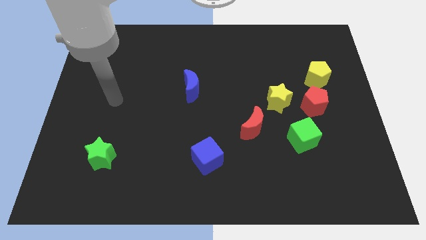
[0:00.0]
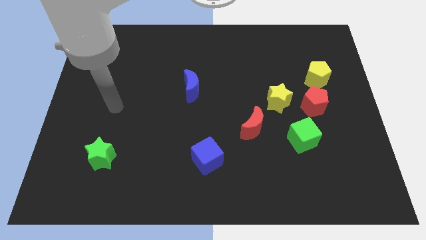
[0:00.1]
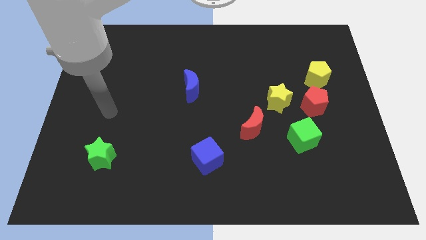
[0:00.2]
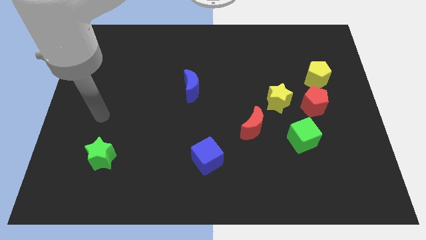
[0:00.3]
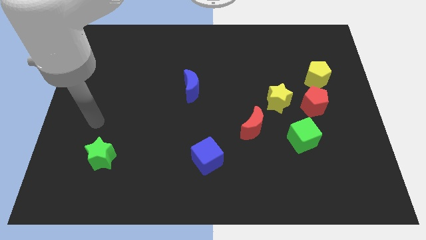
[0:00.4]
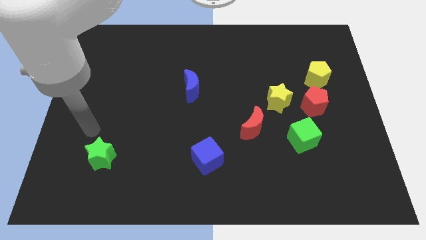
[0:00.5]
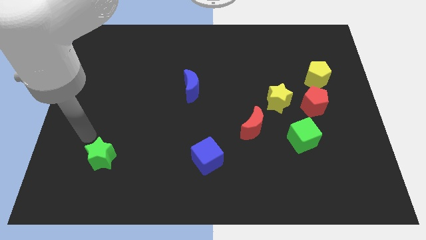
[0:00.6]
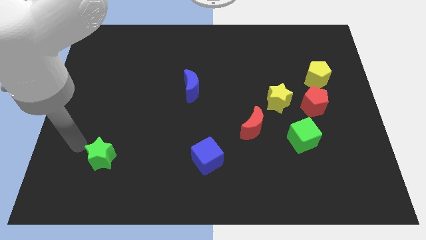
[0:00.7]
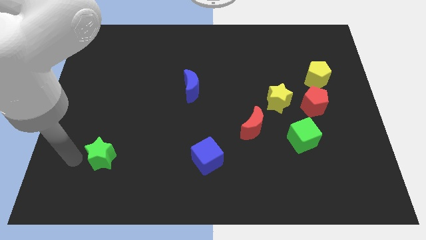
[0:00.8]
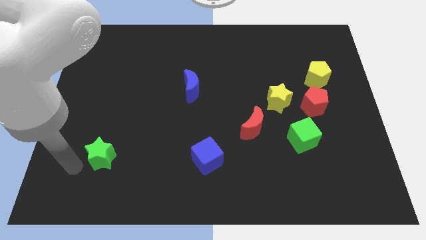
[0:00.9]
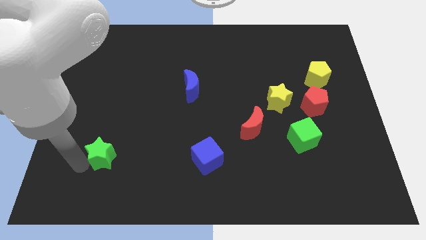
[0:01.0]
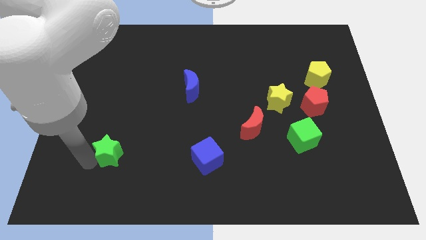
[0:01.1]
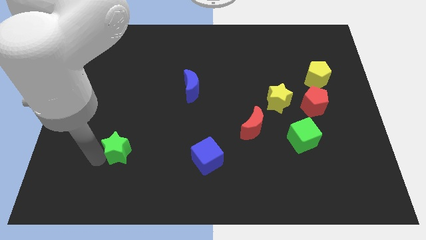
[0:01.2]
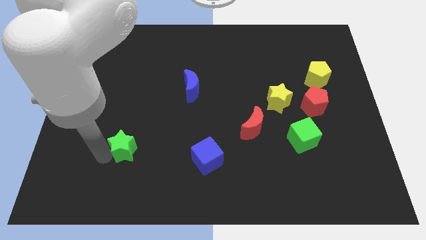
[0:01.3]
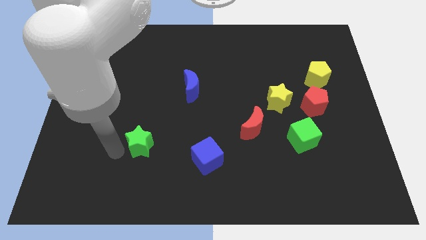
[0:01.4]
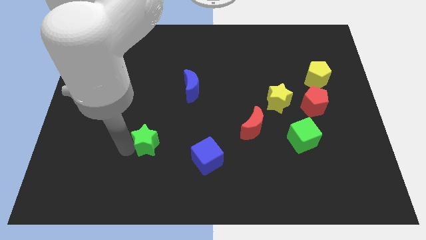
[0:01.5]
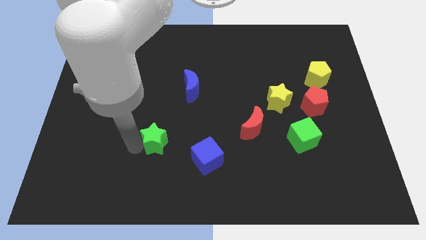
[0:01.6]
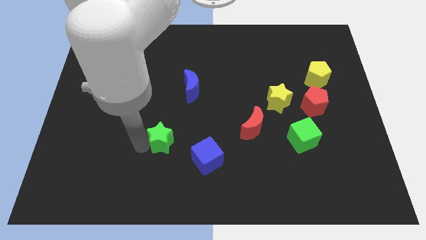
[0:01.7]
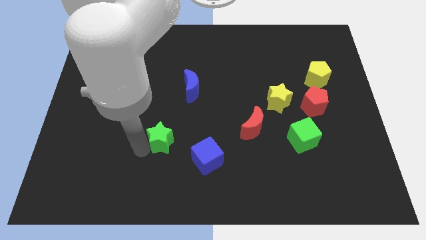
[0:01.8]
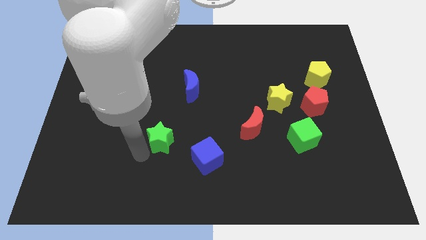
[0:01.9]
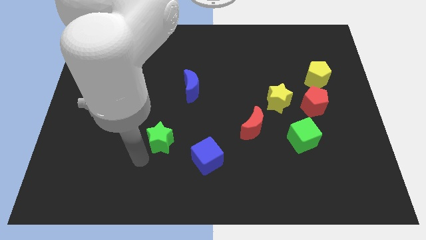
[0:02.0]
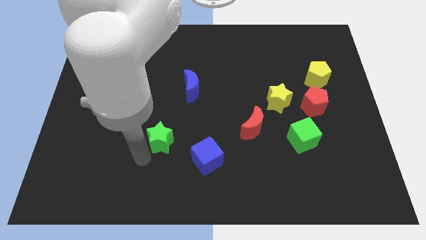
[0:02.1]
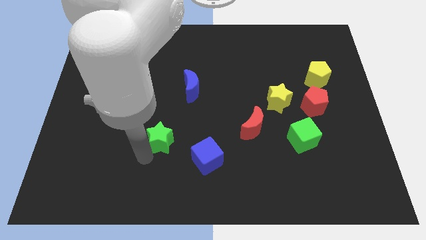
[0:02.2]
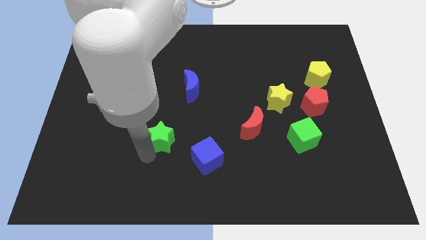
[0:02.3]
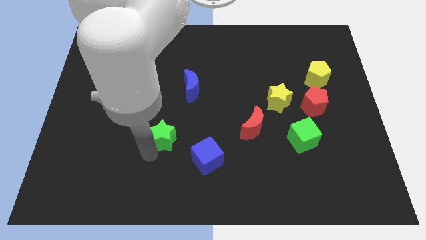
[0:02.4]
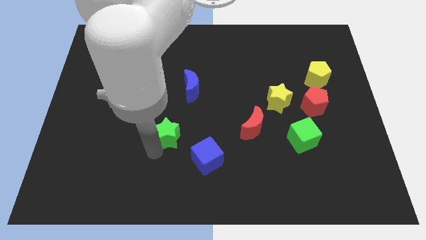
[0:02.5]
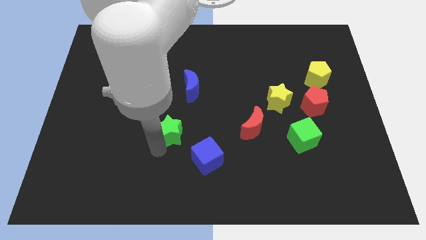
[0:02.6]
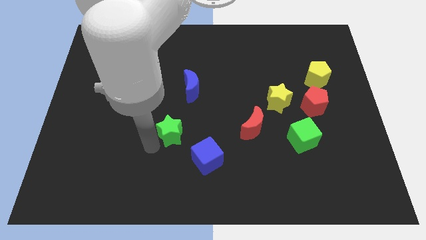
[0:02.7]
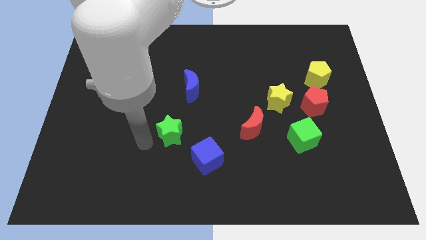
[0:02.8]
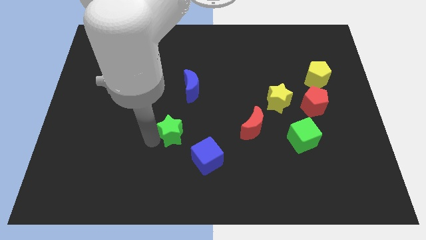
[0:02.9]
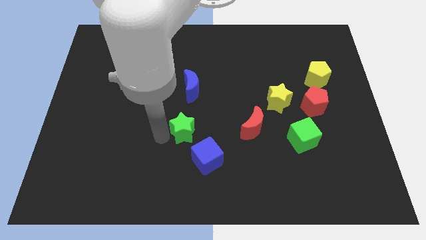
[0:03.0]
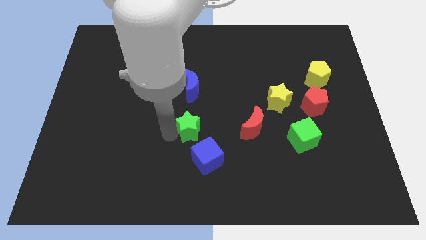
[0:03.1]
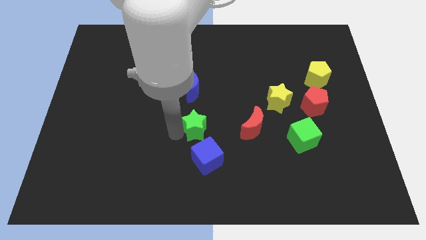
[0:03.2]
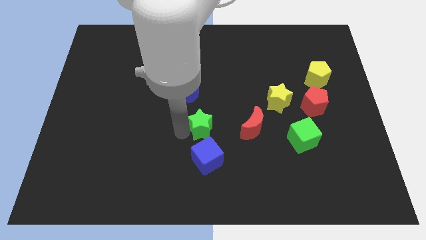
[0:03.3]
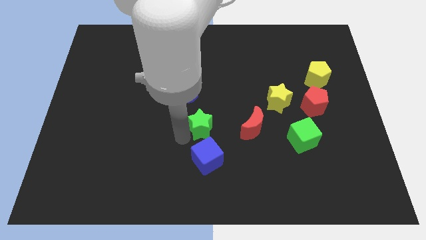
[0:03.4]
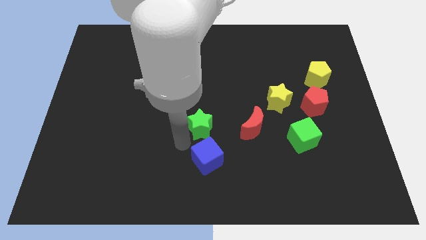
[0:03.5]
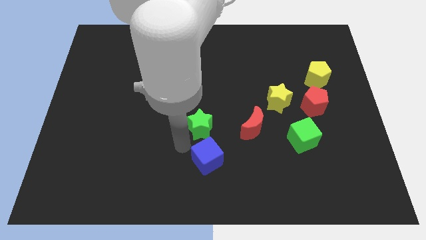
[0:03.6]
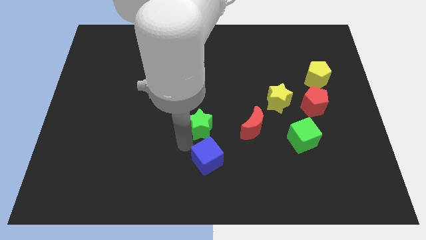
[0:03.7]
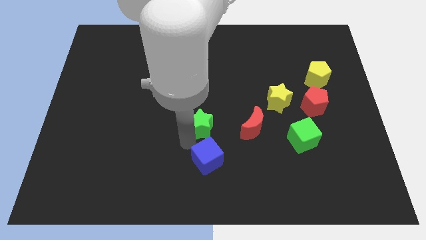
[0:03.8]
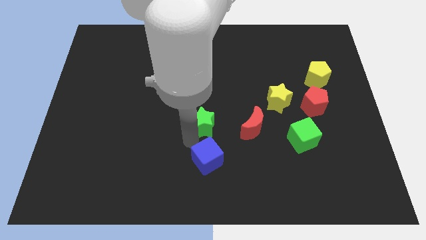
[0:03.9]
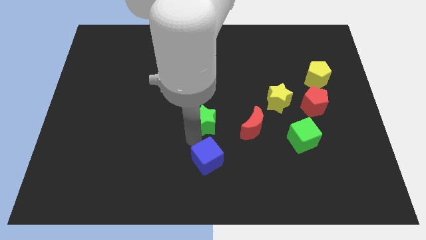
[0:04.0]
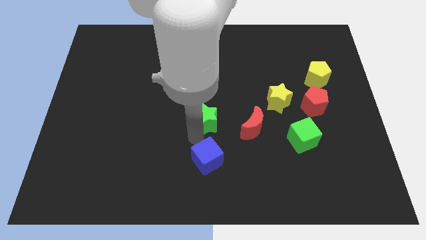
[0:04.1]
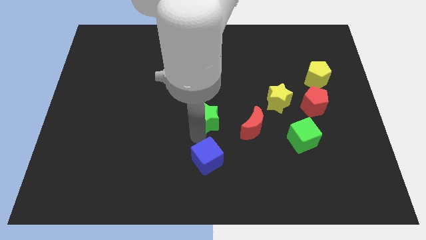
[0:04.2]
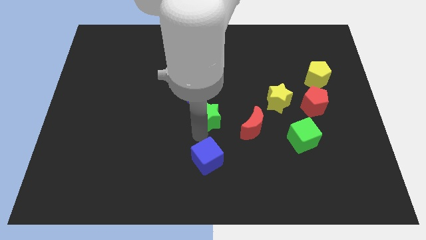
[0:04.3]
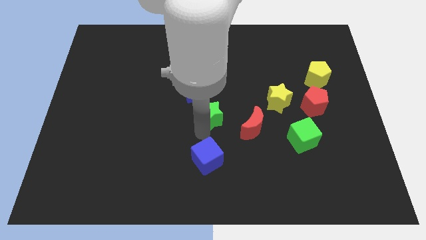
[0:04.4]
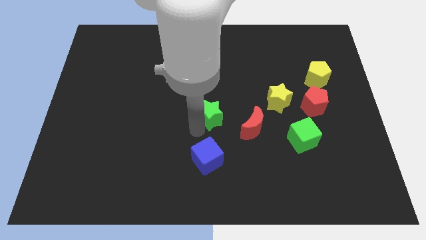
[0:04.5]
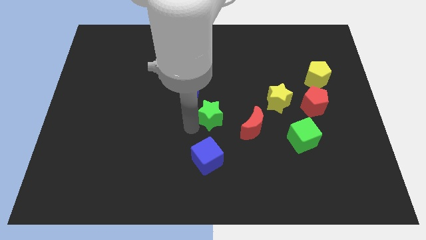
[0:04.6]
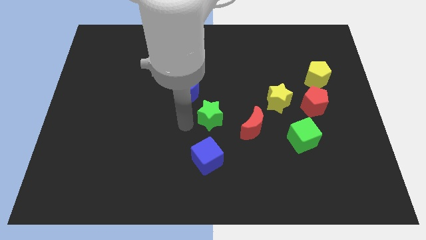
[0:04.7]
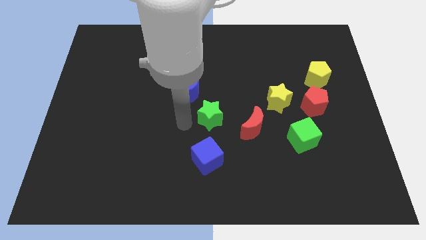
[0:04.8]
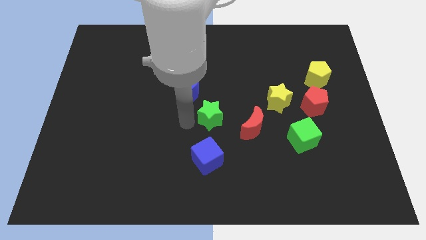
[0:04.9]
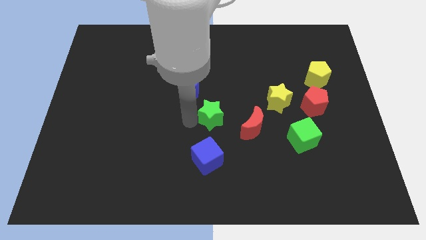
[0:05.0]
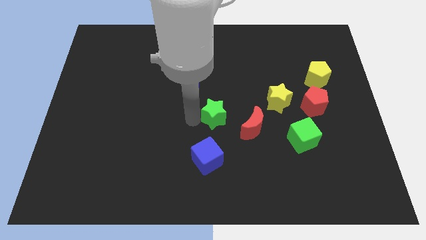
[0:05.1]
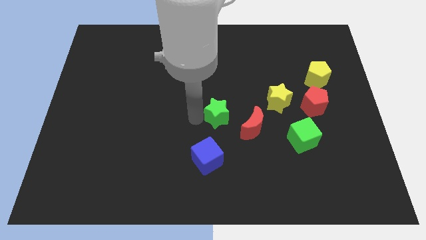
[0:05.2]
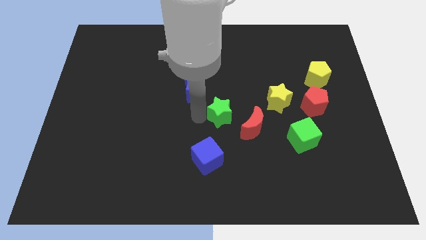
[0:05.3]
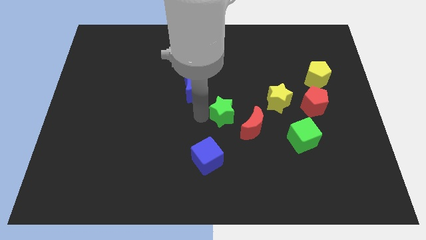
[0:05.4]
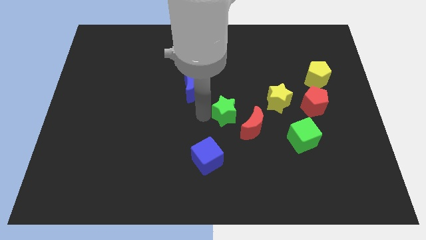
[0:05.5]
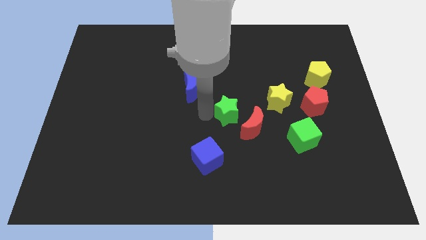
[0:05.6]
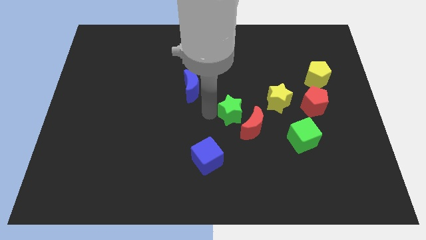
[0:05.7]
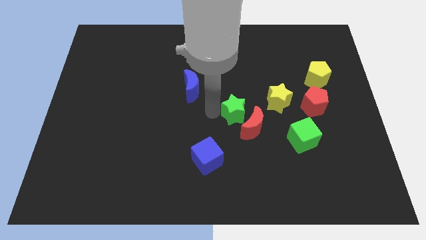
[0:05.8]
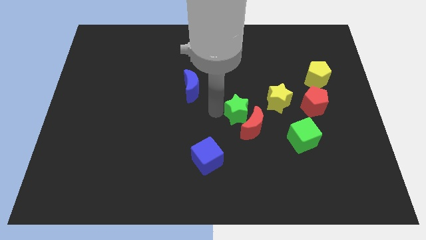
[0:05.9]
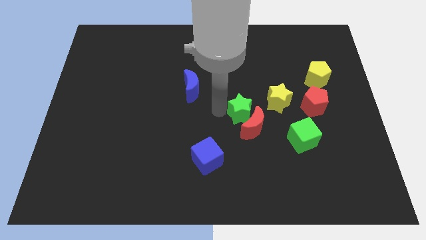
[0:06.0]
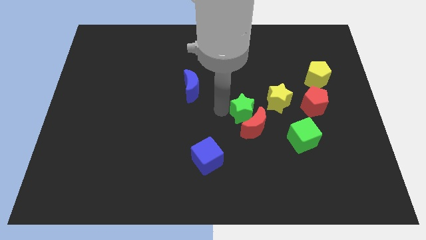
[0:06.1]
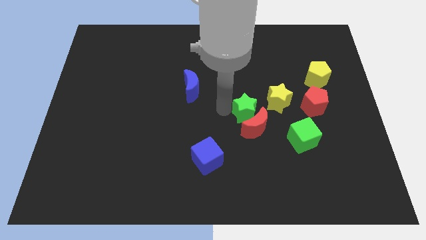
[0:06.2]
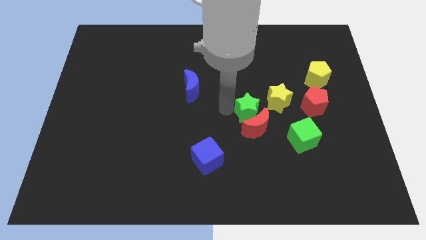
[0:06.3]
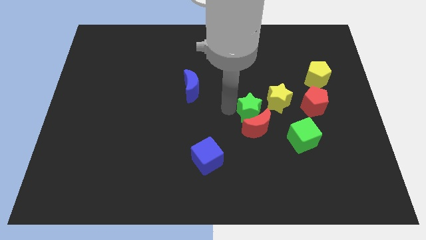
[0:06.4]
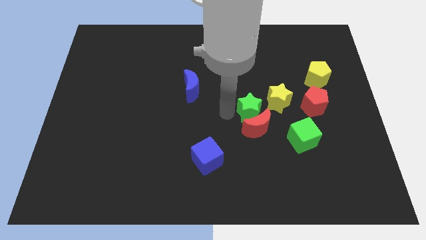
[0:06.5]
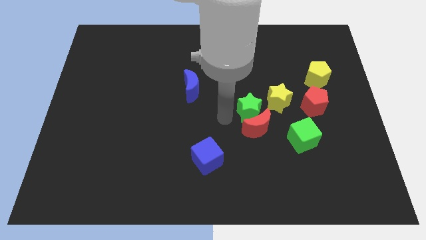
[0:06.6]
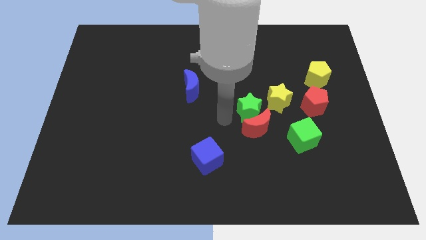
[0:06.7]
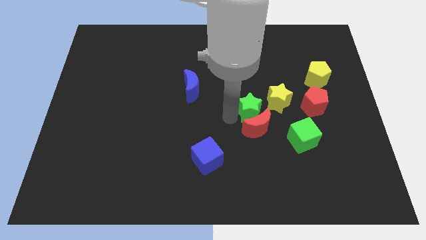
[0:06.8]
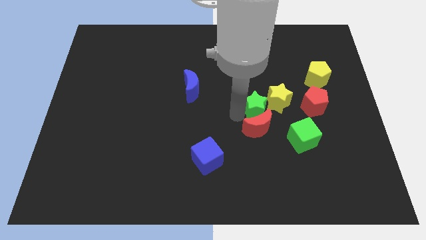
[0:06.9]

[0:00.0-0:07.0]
push the green star to the yellow star
